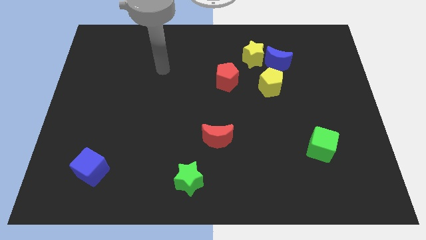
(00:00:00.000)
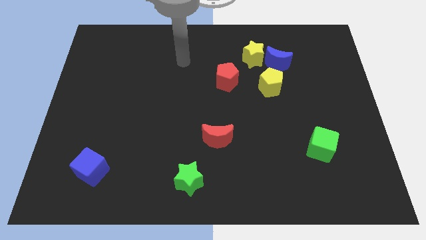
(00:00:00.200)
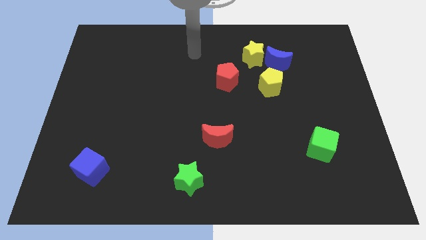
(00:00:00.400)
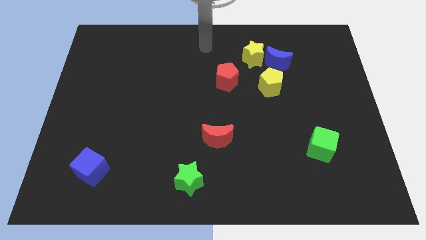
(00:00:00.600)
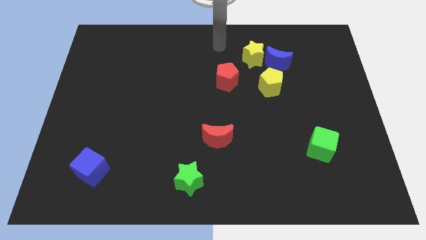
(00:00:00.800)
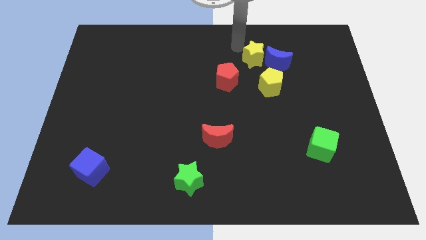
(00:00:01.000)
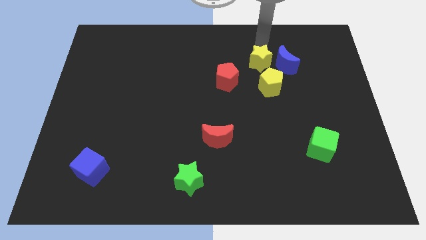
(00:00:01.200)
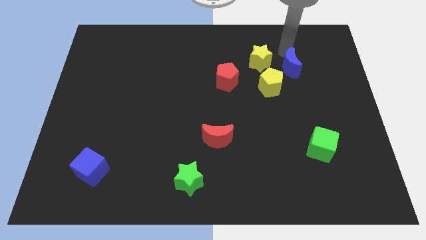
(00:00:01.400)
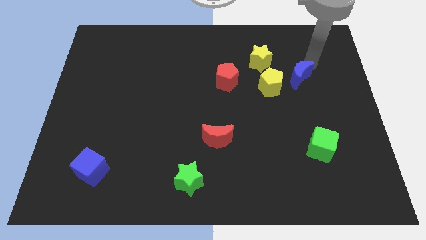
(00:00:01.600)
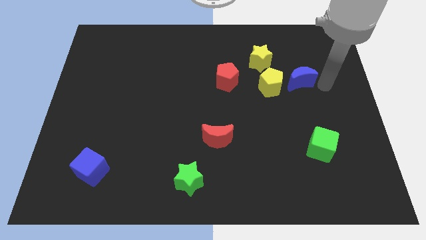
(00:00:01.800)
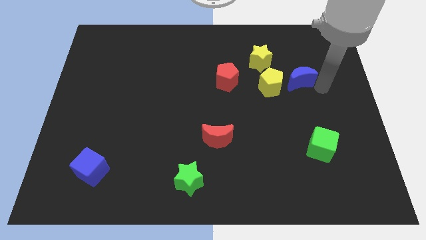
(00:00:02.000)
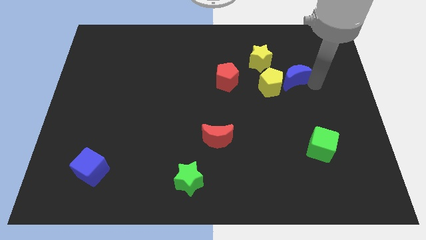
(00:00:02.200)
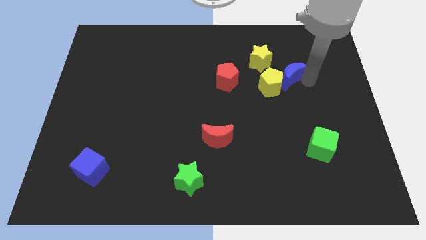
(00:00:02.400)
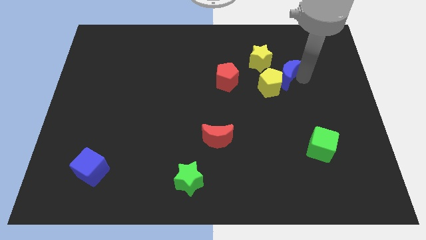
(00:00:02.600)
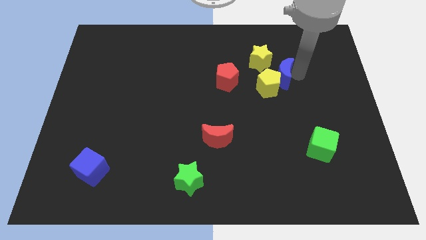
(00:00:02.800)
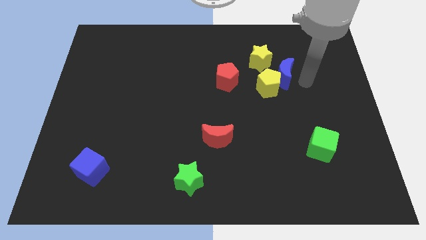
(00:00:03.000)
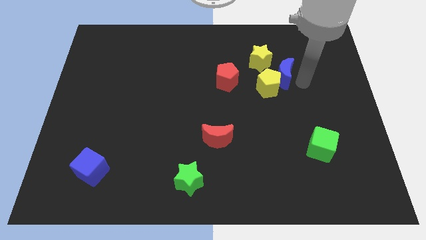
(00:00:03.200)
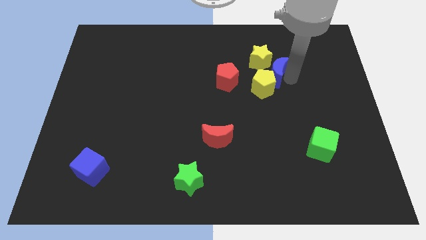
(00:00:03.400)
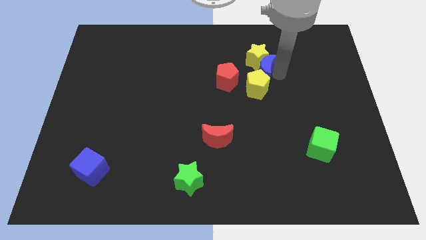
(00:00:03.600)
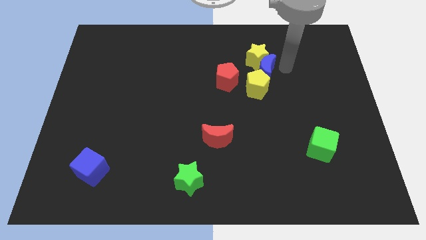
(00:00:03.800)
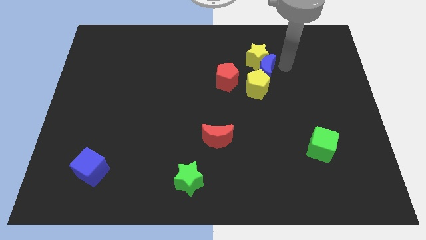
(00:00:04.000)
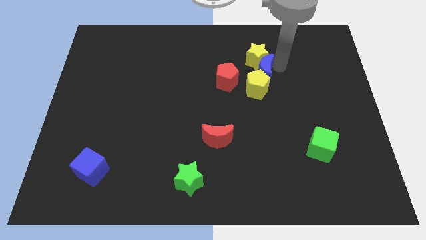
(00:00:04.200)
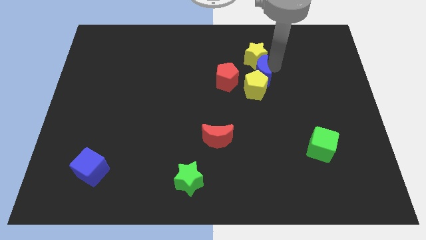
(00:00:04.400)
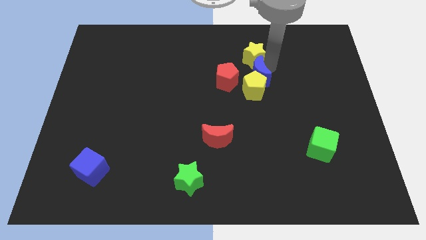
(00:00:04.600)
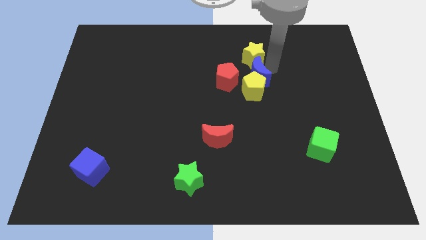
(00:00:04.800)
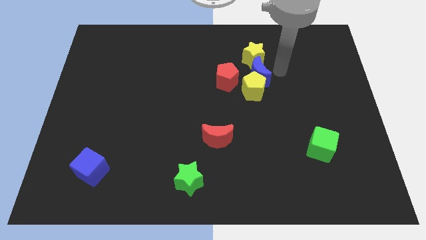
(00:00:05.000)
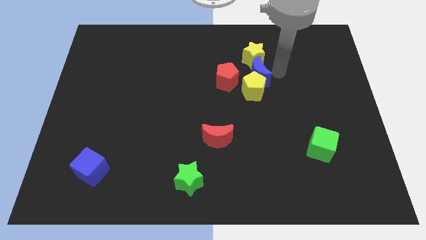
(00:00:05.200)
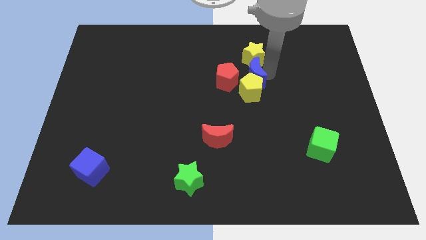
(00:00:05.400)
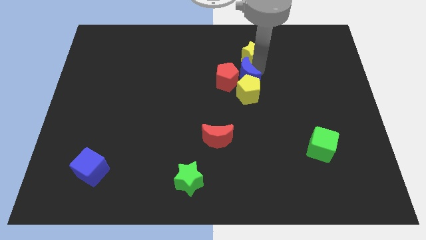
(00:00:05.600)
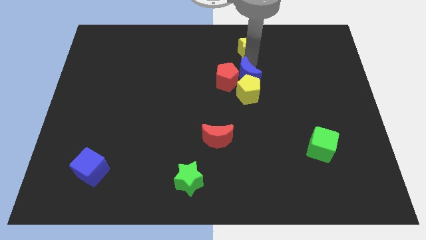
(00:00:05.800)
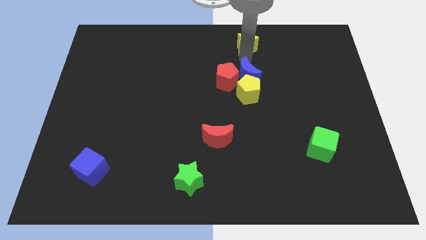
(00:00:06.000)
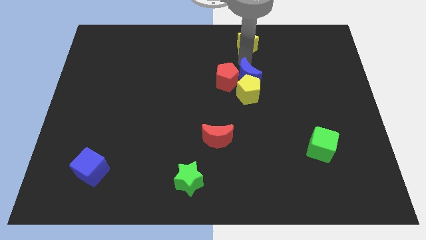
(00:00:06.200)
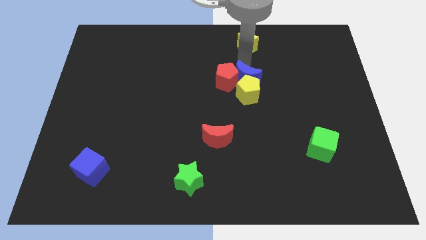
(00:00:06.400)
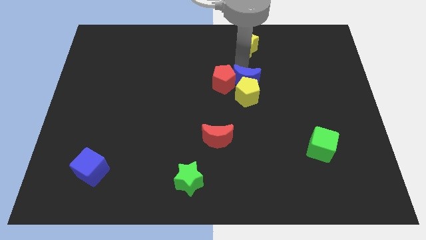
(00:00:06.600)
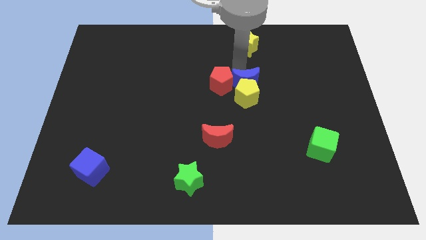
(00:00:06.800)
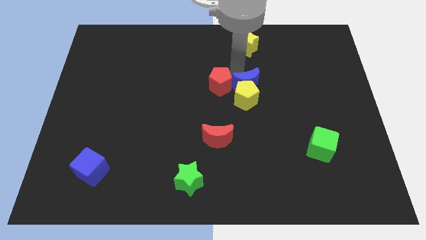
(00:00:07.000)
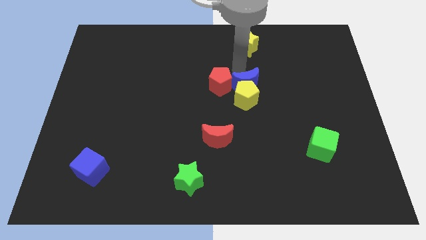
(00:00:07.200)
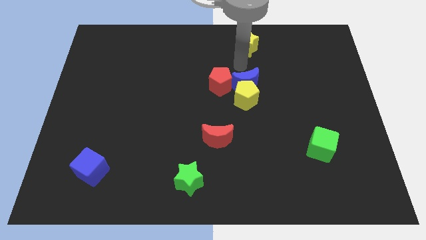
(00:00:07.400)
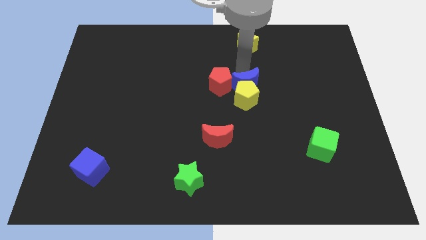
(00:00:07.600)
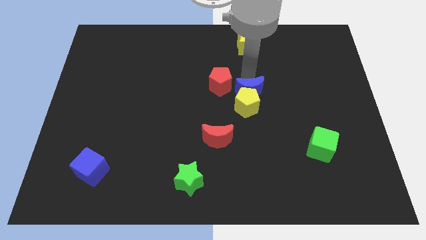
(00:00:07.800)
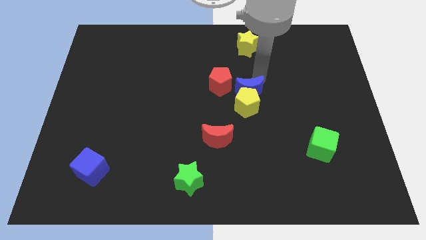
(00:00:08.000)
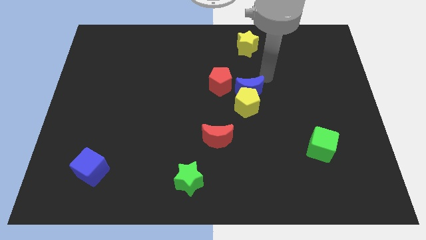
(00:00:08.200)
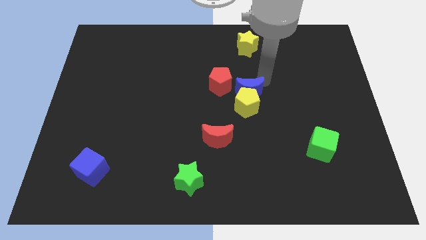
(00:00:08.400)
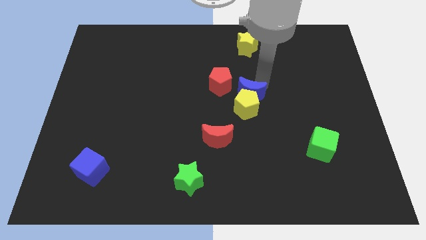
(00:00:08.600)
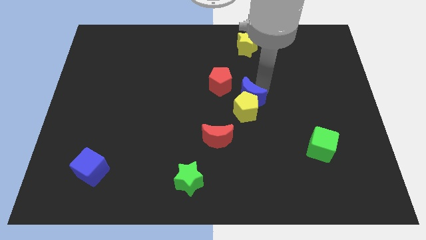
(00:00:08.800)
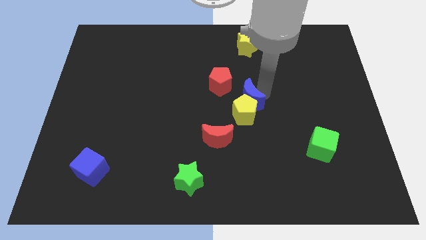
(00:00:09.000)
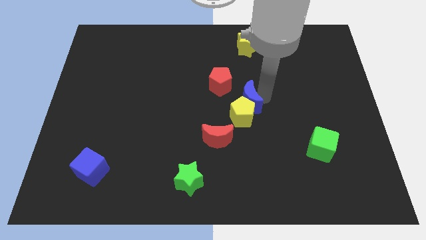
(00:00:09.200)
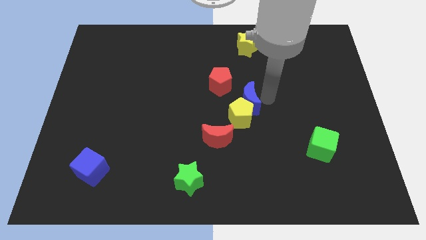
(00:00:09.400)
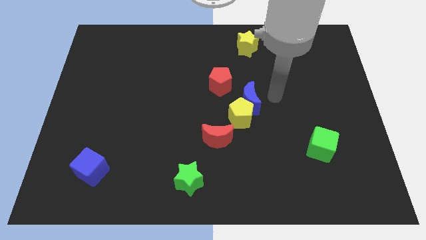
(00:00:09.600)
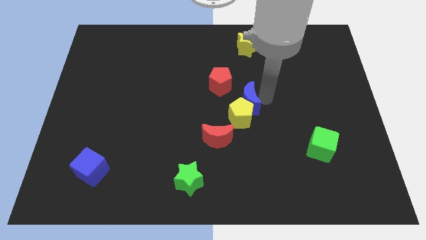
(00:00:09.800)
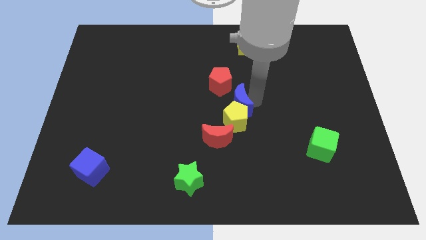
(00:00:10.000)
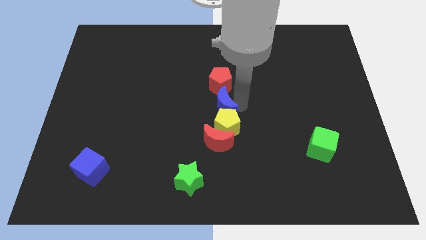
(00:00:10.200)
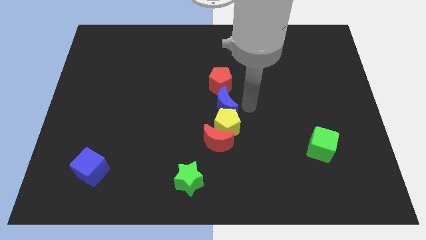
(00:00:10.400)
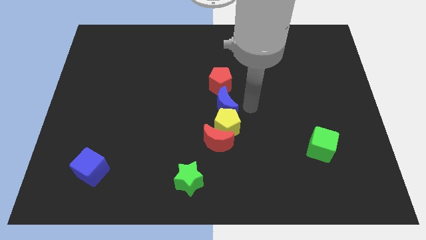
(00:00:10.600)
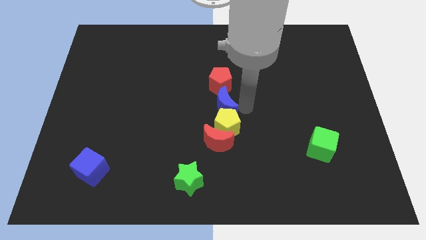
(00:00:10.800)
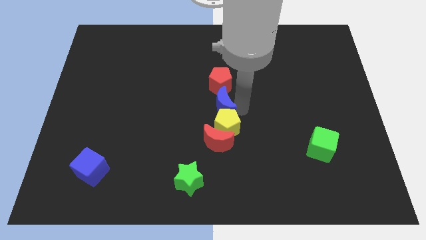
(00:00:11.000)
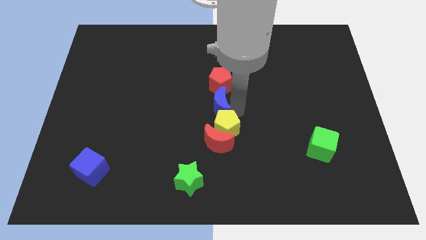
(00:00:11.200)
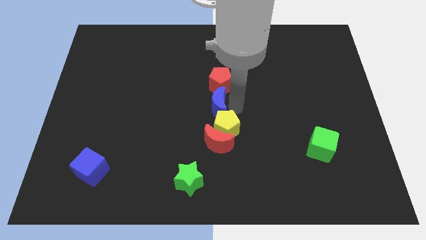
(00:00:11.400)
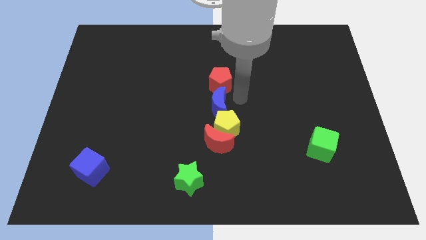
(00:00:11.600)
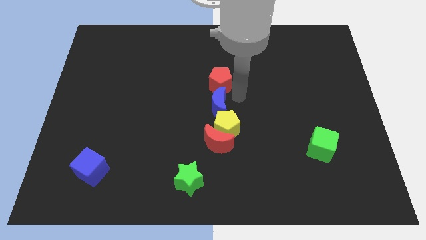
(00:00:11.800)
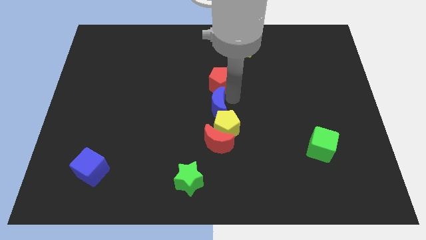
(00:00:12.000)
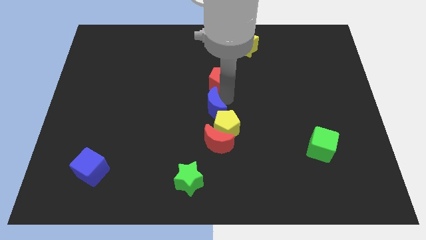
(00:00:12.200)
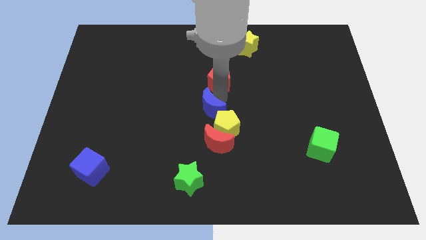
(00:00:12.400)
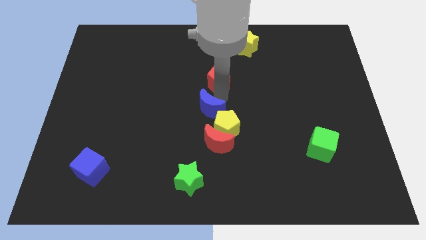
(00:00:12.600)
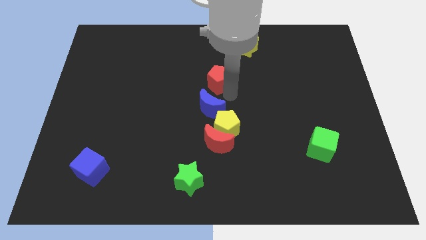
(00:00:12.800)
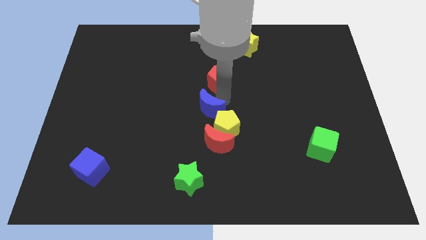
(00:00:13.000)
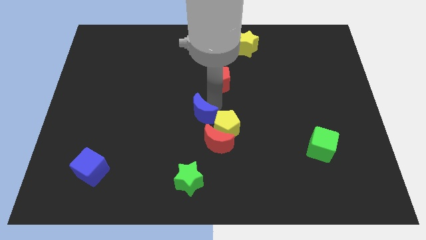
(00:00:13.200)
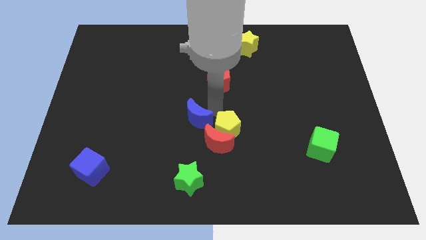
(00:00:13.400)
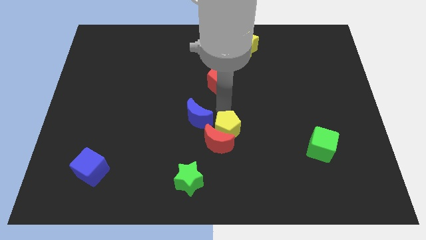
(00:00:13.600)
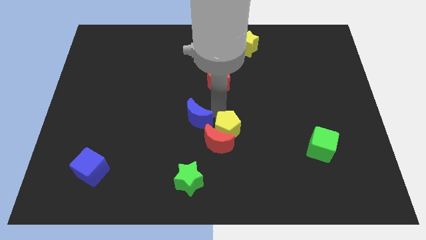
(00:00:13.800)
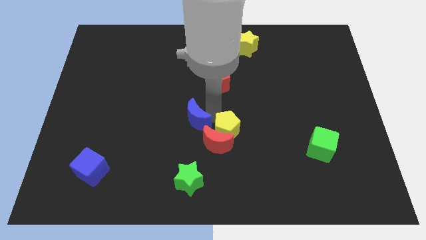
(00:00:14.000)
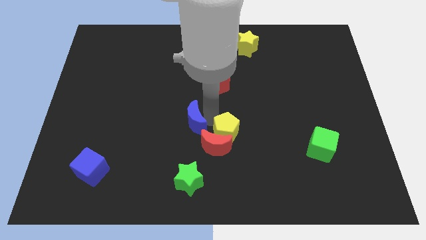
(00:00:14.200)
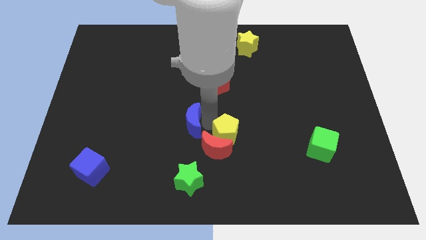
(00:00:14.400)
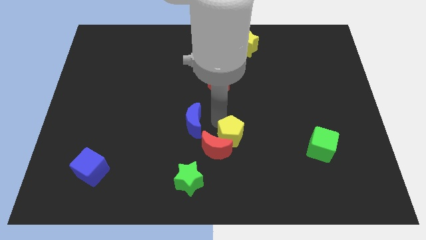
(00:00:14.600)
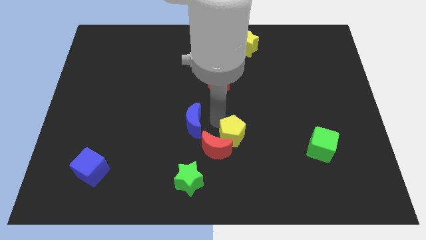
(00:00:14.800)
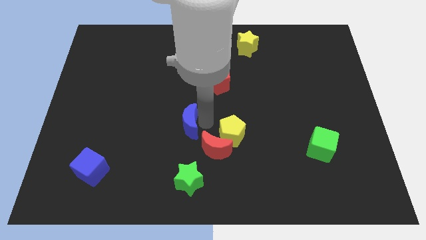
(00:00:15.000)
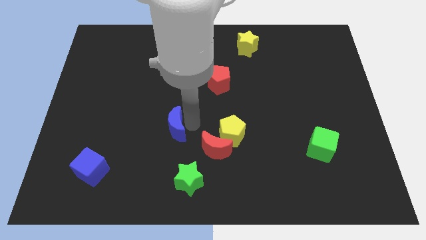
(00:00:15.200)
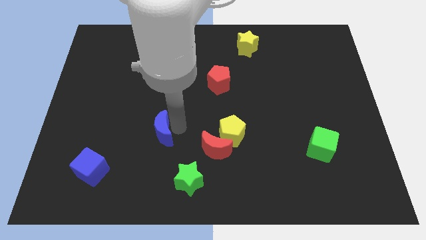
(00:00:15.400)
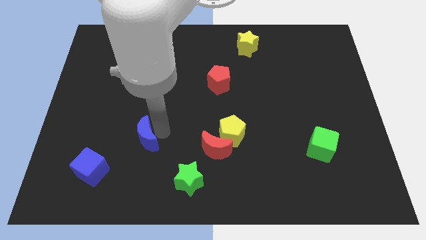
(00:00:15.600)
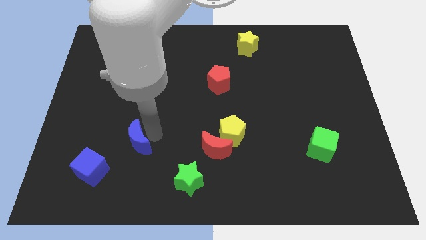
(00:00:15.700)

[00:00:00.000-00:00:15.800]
move the blue moon to the top right side of the blue cube

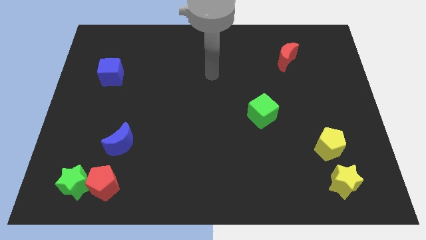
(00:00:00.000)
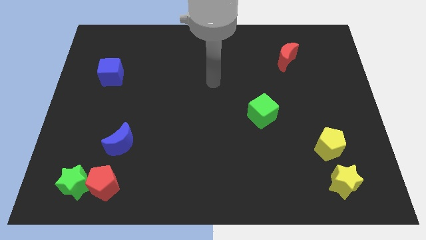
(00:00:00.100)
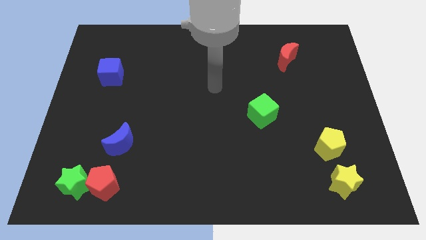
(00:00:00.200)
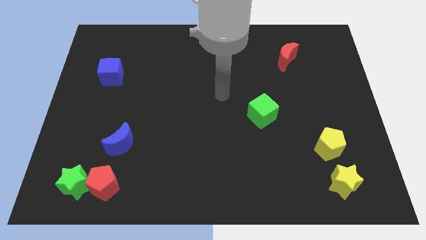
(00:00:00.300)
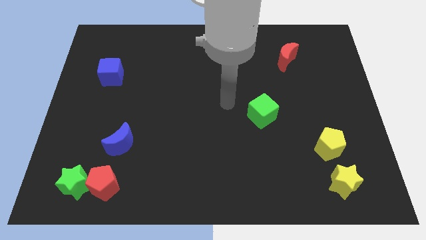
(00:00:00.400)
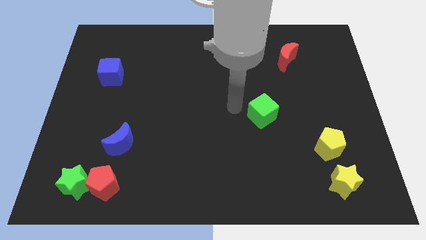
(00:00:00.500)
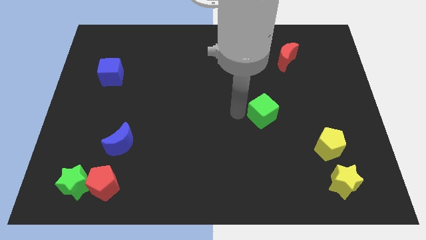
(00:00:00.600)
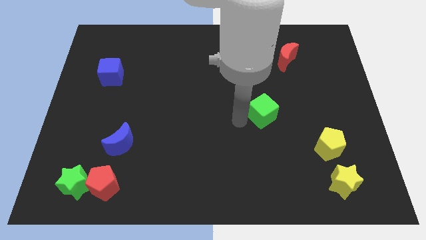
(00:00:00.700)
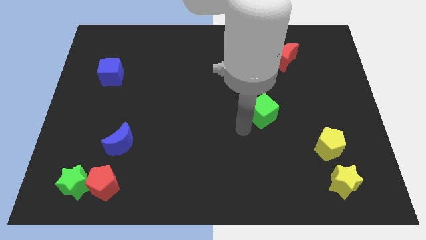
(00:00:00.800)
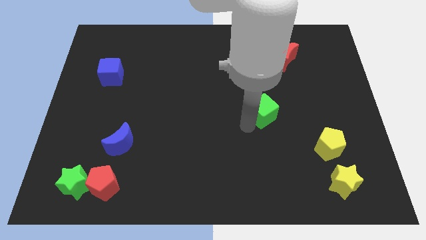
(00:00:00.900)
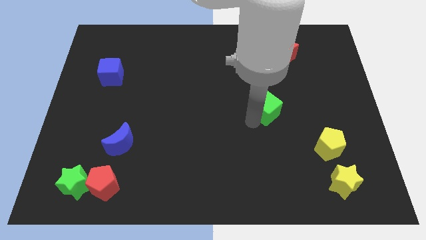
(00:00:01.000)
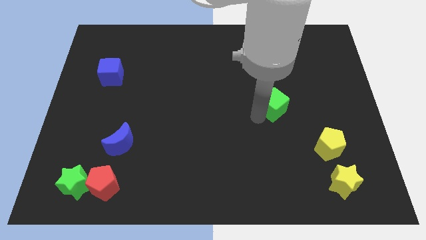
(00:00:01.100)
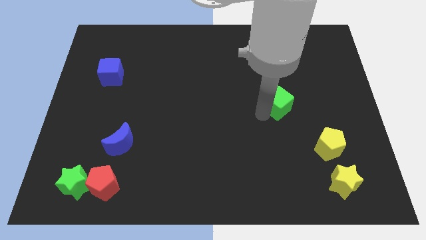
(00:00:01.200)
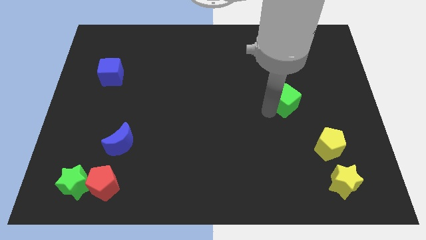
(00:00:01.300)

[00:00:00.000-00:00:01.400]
move the green cube below the red moon
